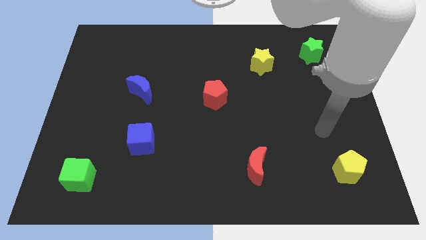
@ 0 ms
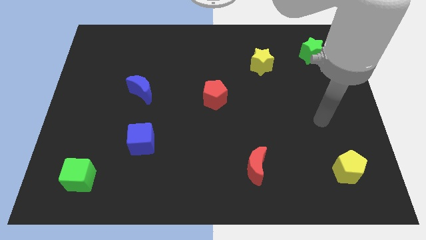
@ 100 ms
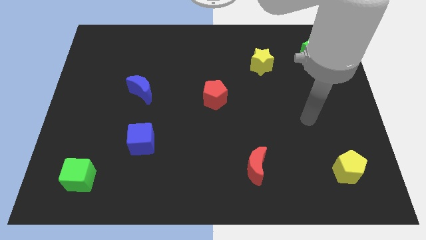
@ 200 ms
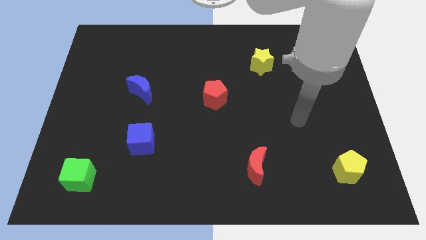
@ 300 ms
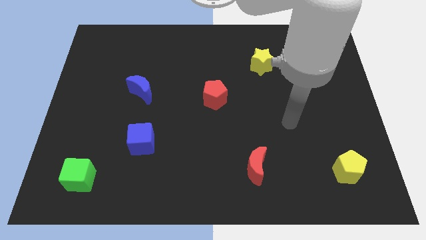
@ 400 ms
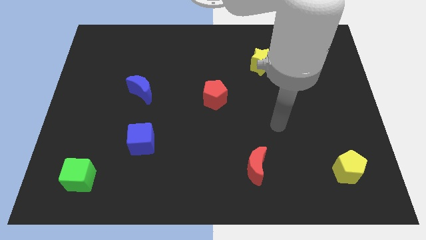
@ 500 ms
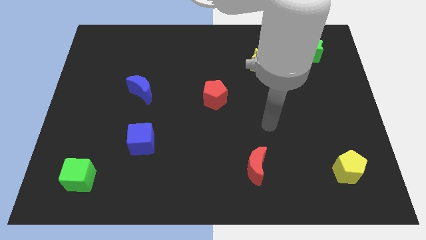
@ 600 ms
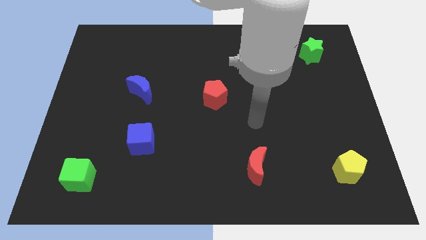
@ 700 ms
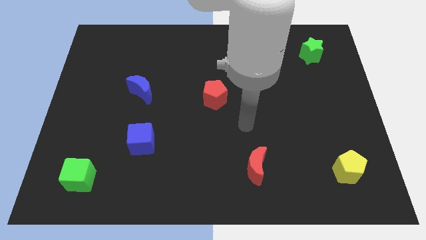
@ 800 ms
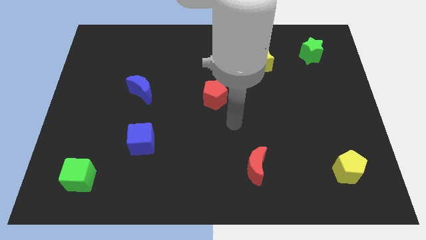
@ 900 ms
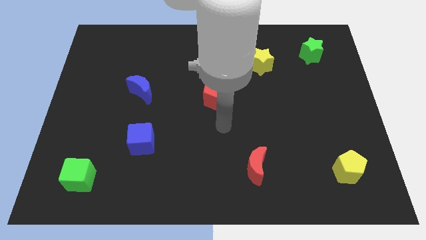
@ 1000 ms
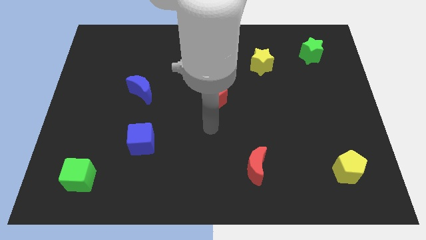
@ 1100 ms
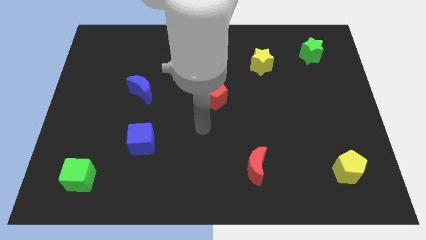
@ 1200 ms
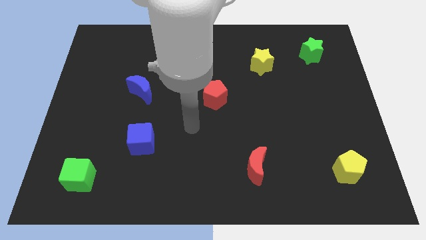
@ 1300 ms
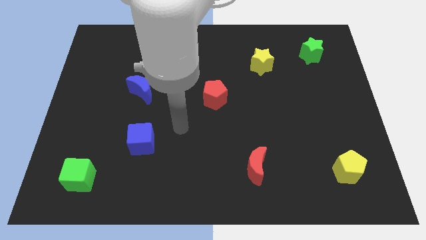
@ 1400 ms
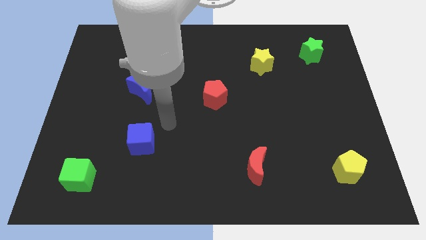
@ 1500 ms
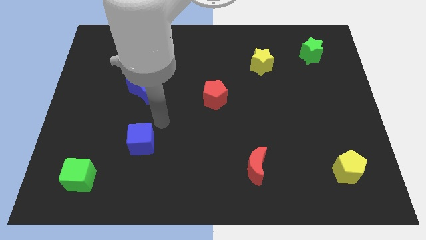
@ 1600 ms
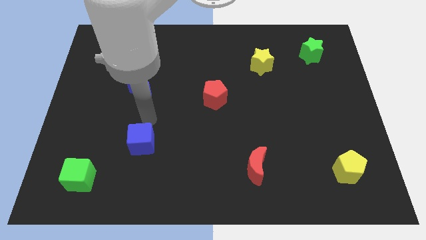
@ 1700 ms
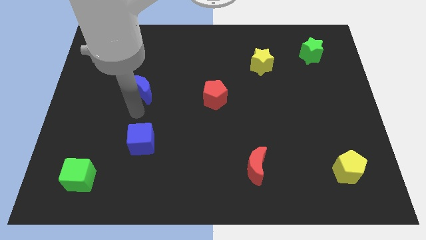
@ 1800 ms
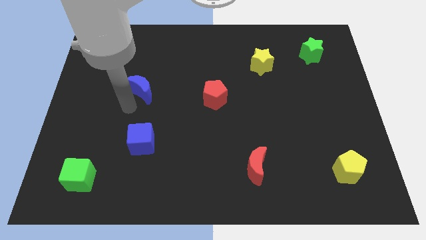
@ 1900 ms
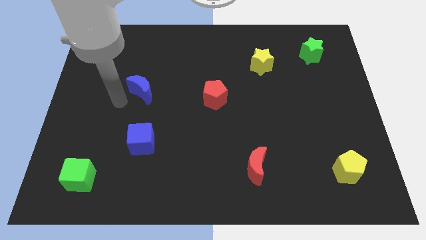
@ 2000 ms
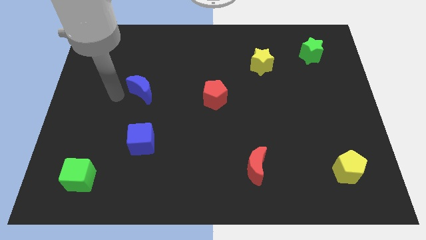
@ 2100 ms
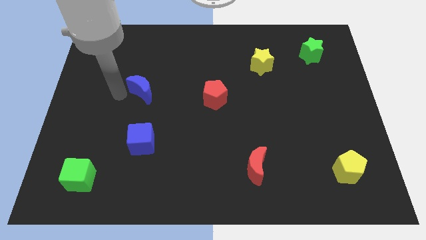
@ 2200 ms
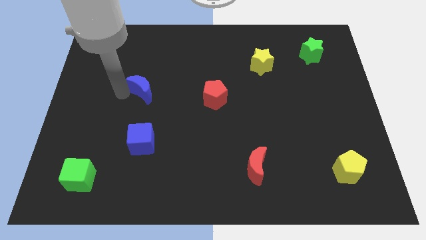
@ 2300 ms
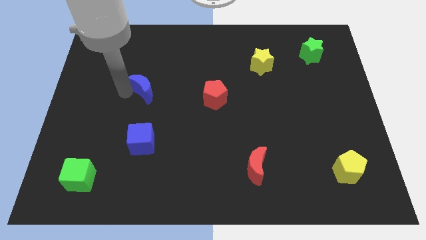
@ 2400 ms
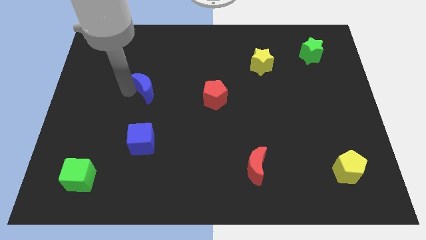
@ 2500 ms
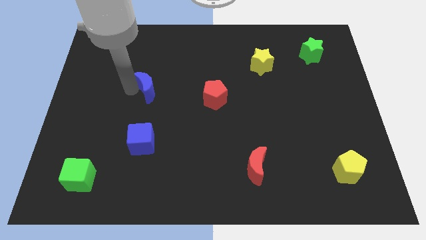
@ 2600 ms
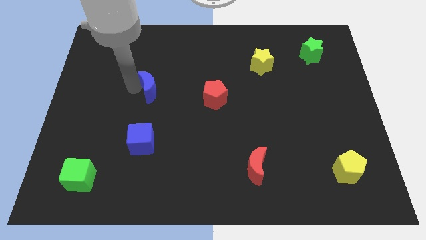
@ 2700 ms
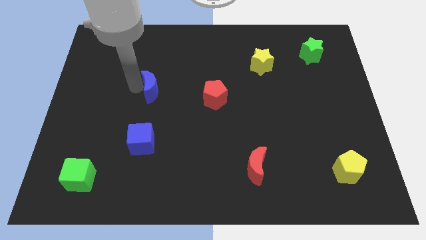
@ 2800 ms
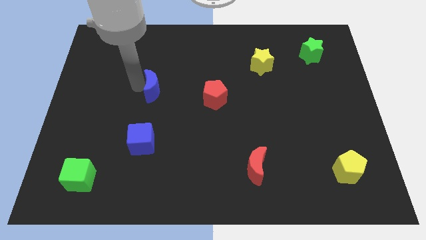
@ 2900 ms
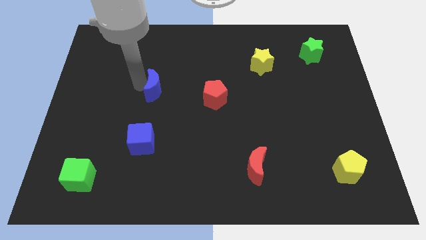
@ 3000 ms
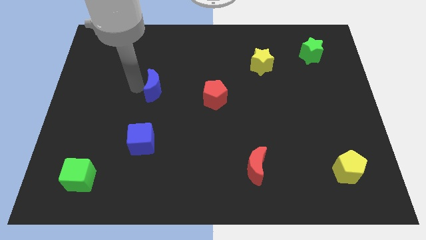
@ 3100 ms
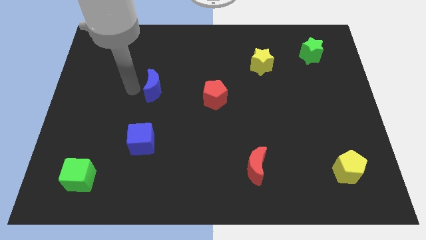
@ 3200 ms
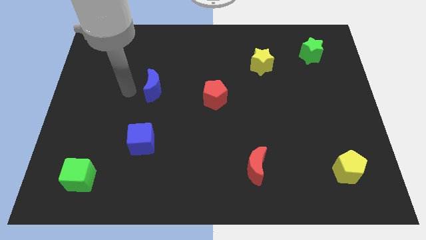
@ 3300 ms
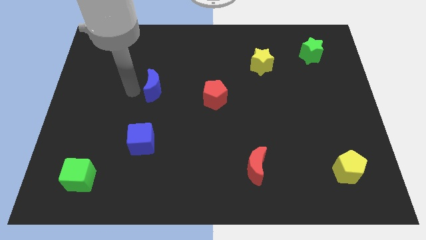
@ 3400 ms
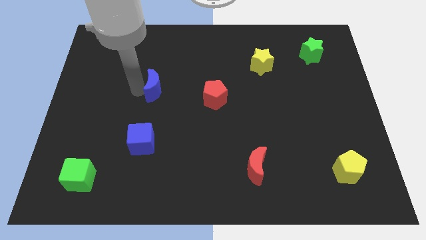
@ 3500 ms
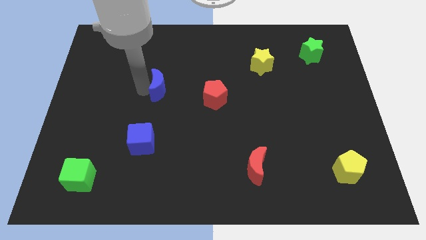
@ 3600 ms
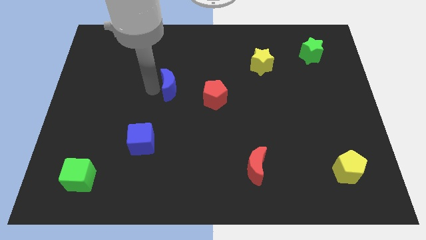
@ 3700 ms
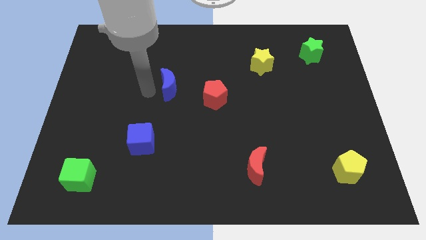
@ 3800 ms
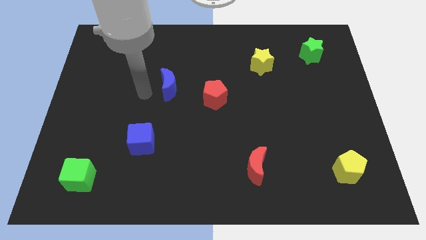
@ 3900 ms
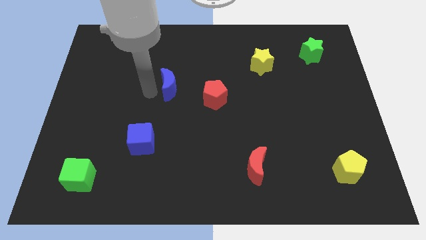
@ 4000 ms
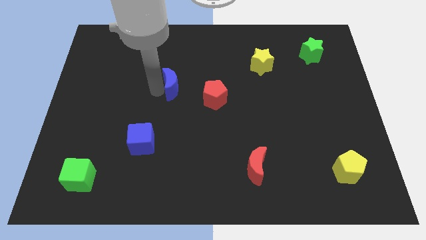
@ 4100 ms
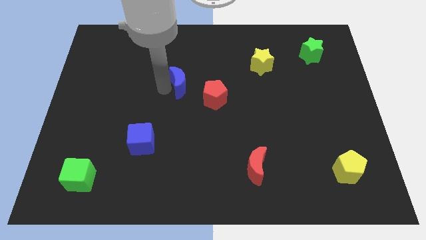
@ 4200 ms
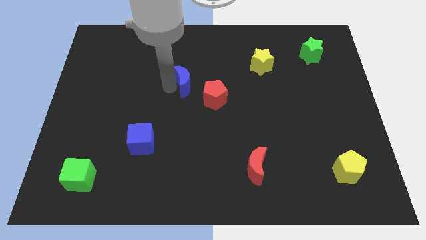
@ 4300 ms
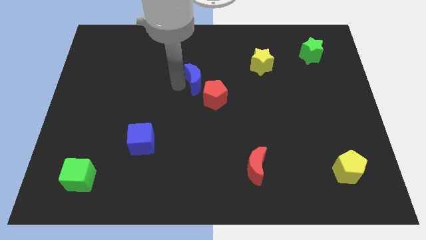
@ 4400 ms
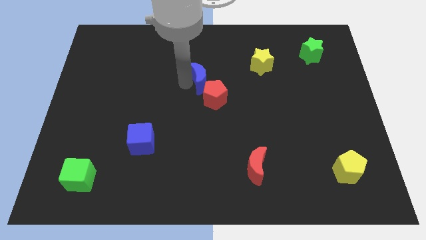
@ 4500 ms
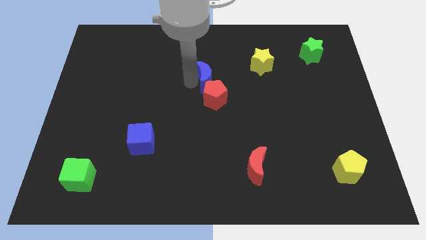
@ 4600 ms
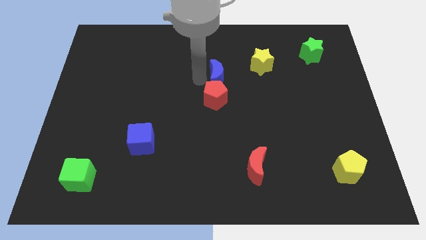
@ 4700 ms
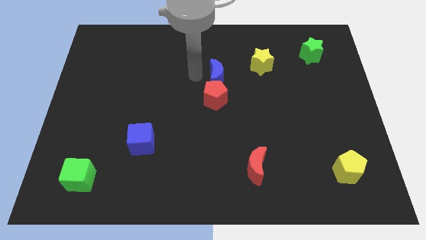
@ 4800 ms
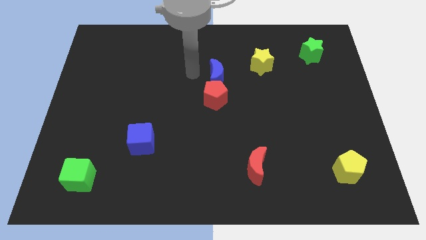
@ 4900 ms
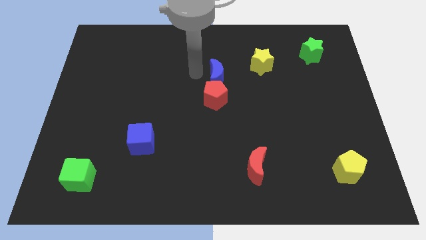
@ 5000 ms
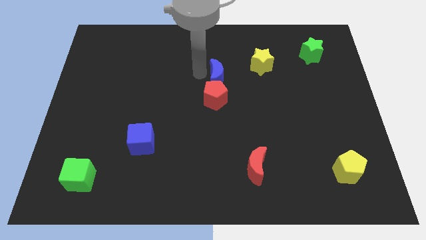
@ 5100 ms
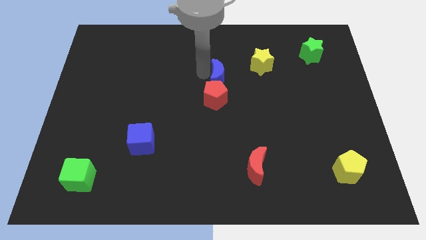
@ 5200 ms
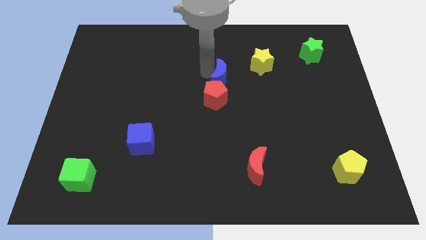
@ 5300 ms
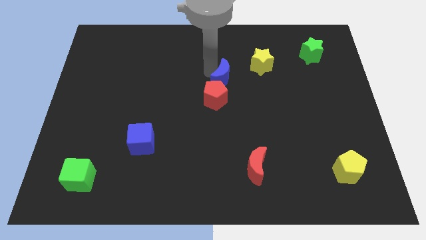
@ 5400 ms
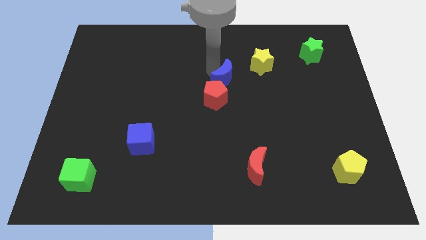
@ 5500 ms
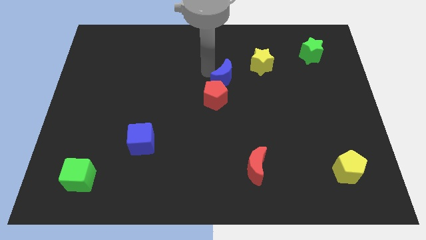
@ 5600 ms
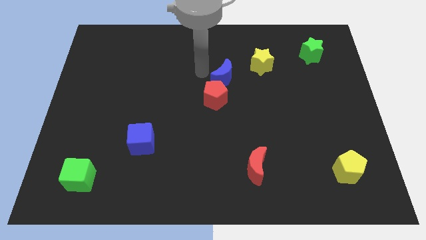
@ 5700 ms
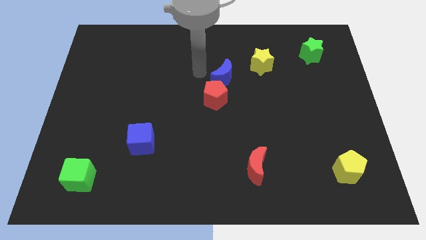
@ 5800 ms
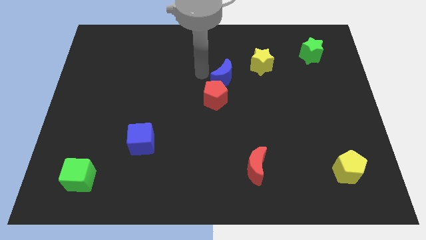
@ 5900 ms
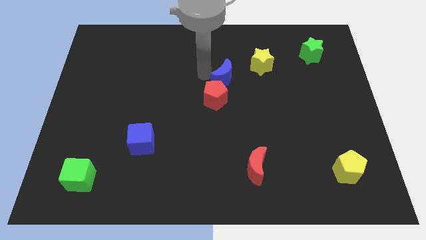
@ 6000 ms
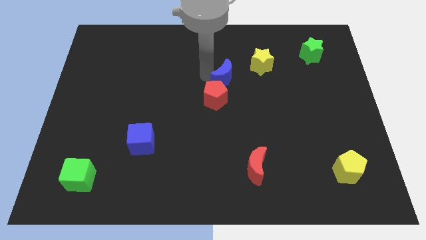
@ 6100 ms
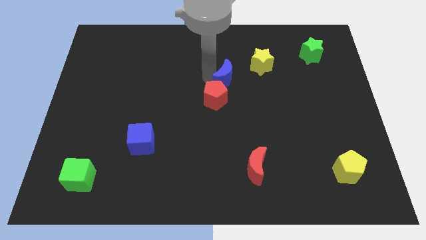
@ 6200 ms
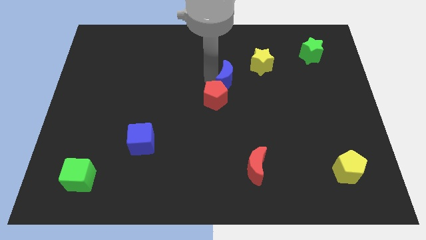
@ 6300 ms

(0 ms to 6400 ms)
move the blue moon right

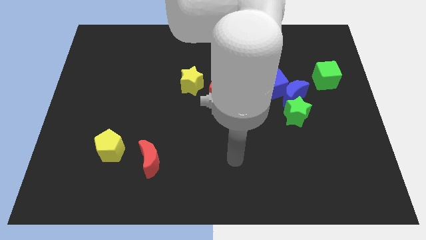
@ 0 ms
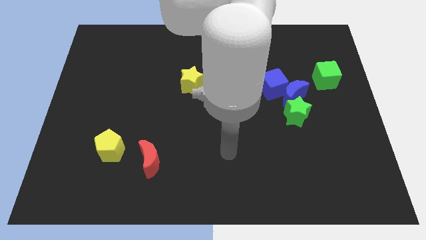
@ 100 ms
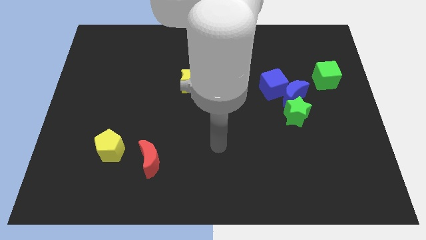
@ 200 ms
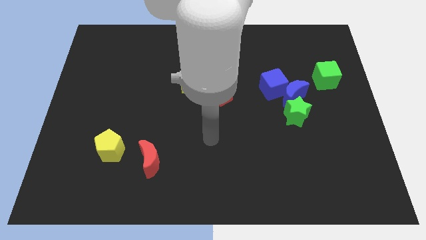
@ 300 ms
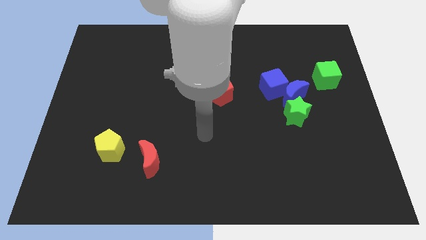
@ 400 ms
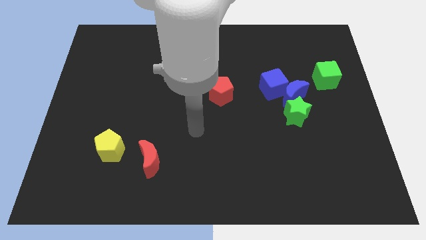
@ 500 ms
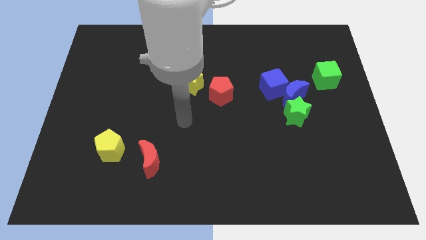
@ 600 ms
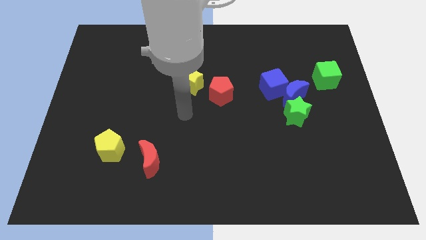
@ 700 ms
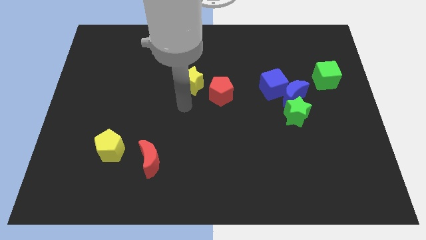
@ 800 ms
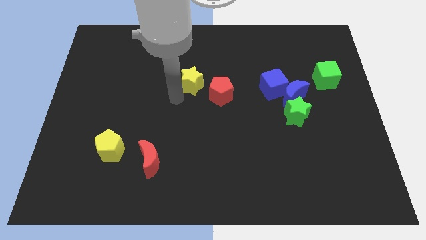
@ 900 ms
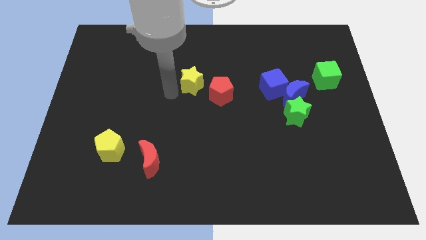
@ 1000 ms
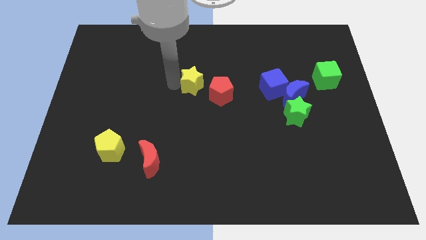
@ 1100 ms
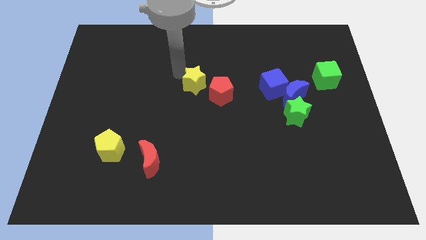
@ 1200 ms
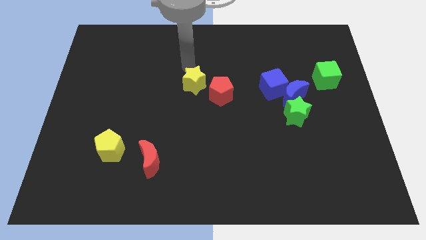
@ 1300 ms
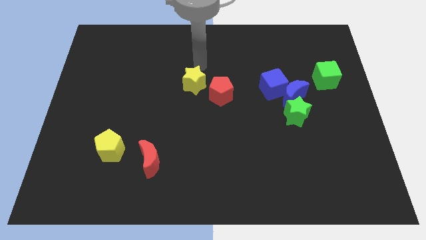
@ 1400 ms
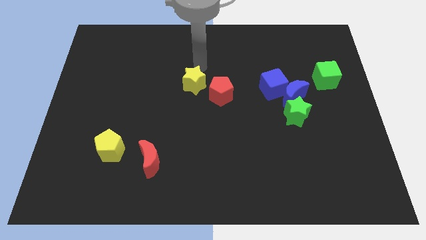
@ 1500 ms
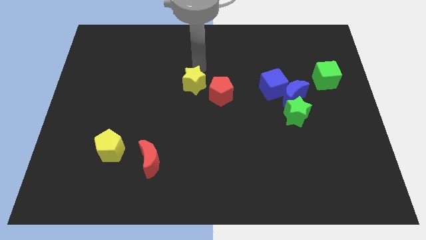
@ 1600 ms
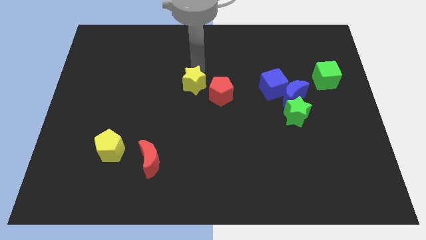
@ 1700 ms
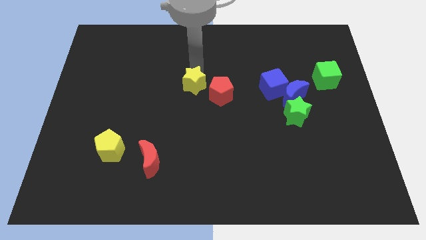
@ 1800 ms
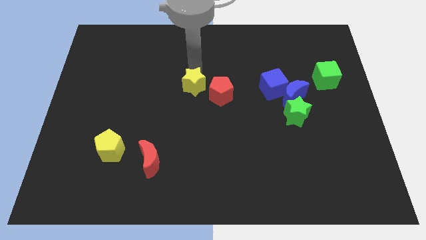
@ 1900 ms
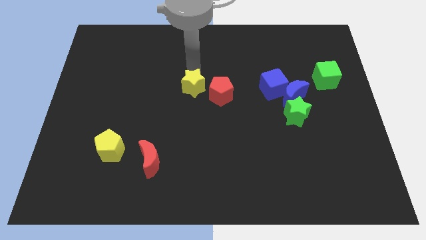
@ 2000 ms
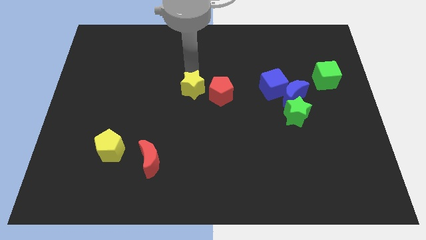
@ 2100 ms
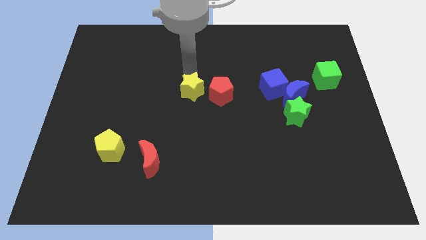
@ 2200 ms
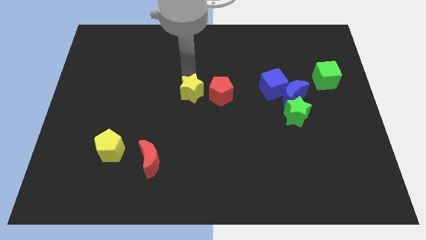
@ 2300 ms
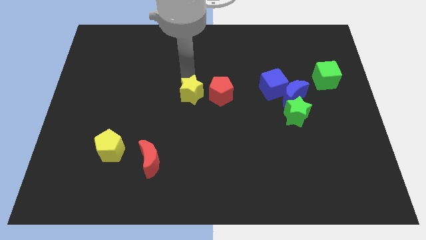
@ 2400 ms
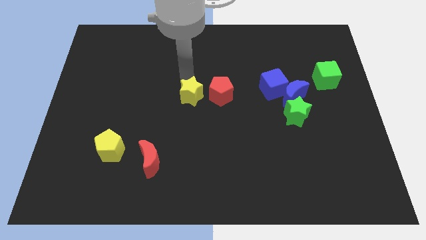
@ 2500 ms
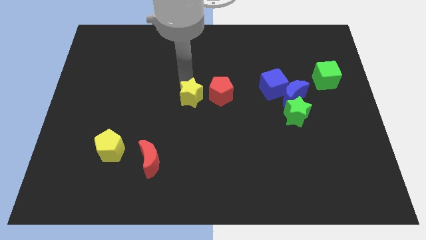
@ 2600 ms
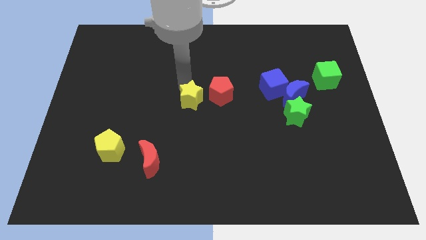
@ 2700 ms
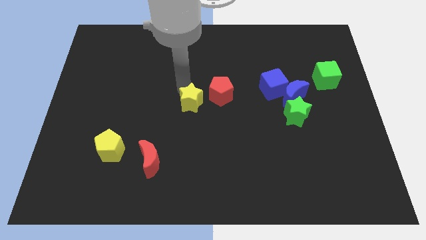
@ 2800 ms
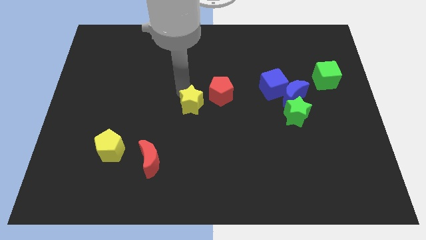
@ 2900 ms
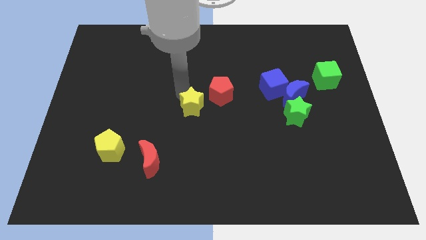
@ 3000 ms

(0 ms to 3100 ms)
push the yellow star down a little
